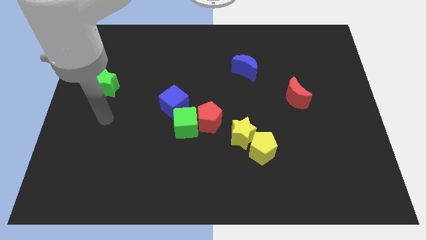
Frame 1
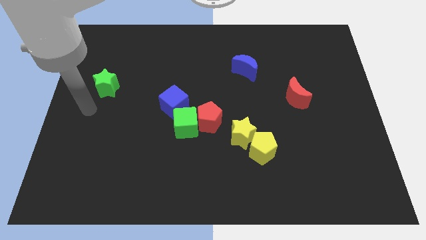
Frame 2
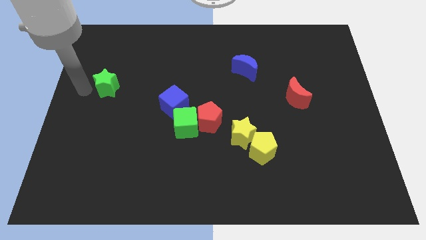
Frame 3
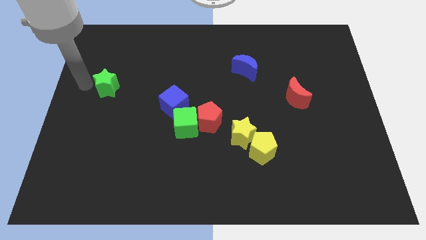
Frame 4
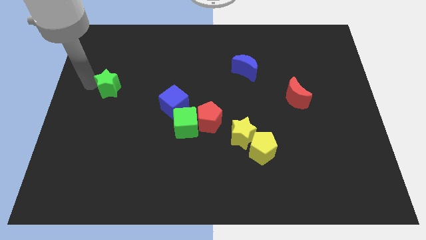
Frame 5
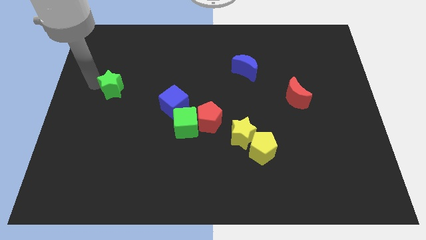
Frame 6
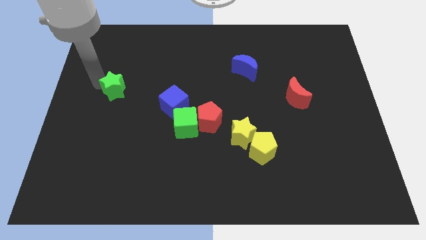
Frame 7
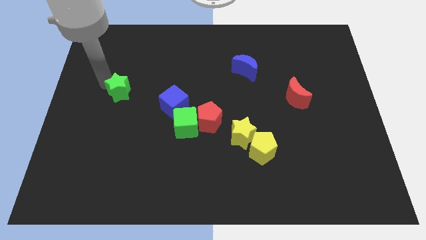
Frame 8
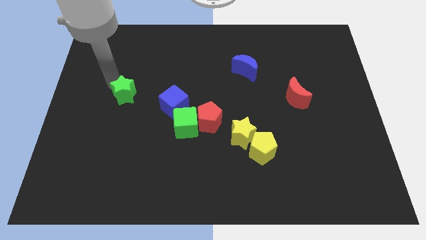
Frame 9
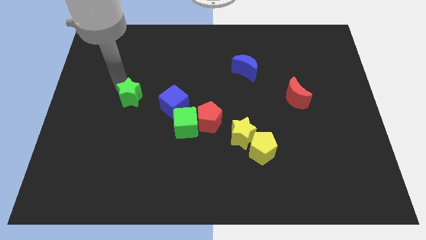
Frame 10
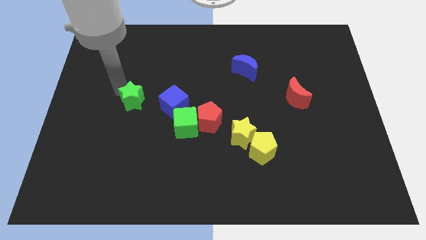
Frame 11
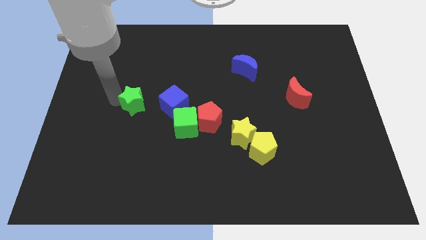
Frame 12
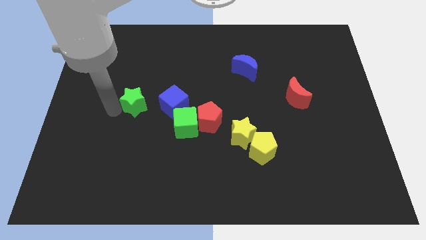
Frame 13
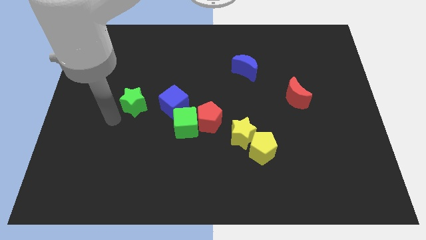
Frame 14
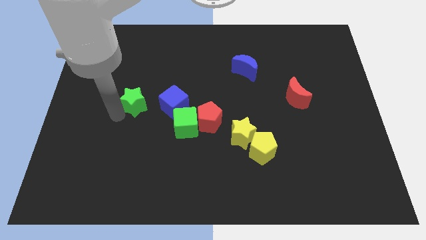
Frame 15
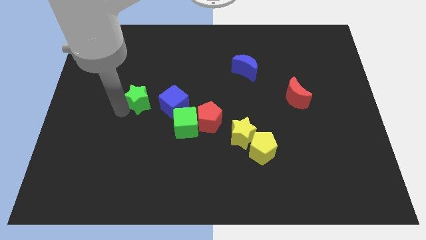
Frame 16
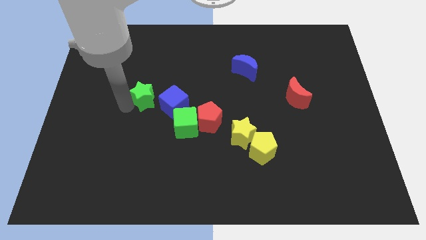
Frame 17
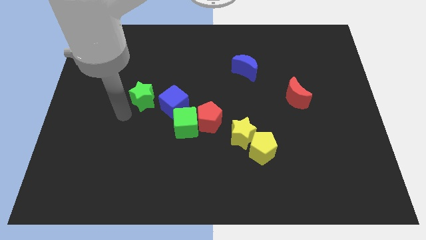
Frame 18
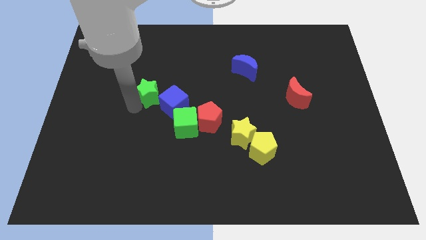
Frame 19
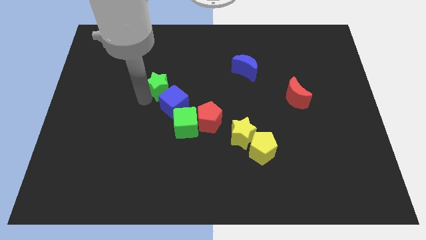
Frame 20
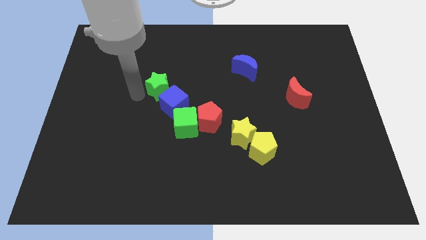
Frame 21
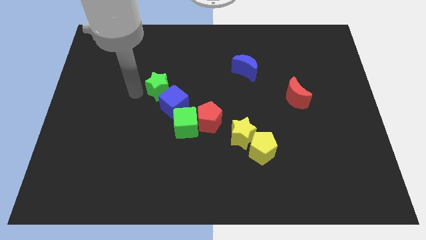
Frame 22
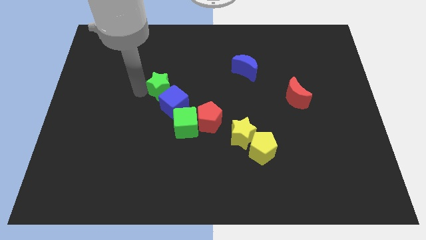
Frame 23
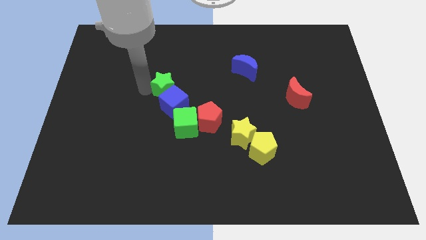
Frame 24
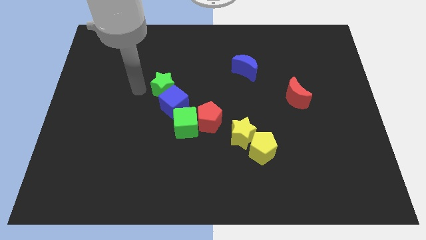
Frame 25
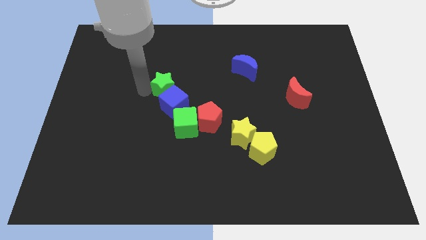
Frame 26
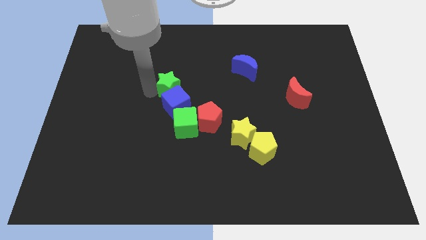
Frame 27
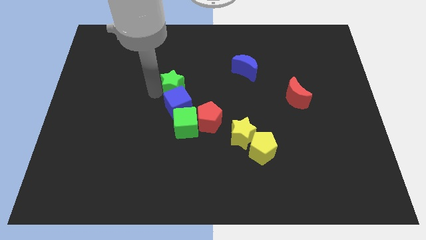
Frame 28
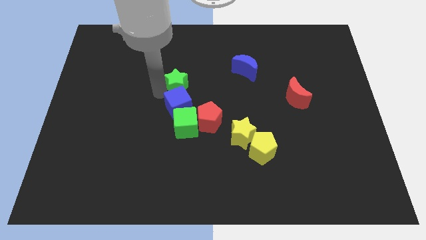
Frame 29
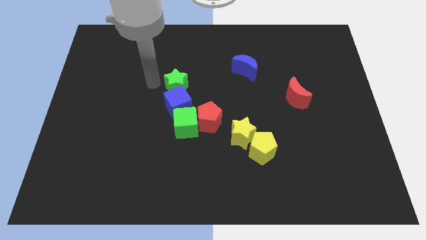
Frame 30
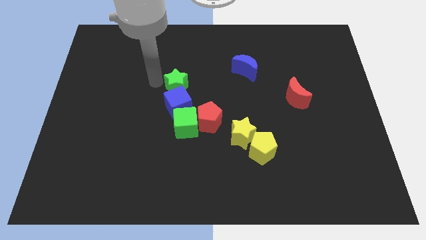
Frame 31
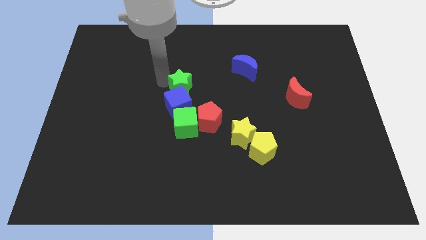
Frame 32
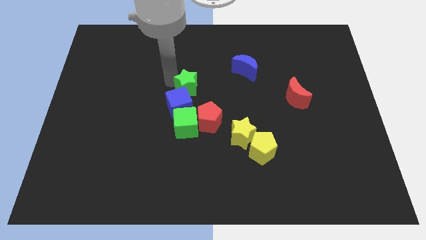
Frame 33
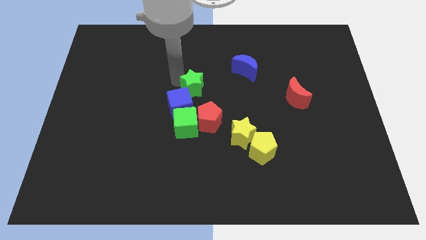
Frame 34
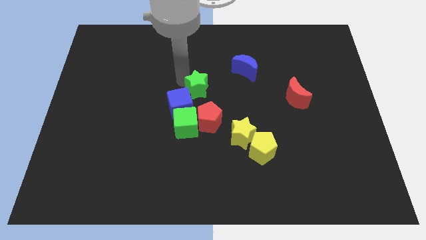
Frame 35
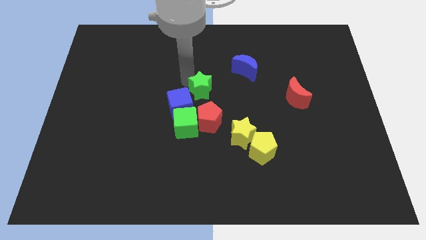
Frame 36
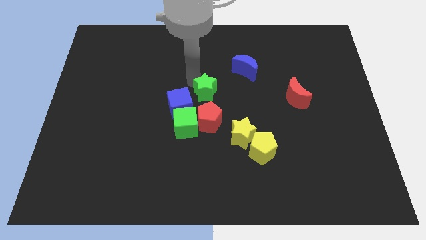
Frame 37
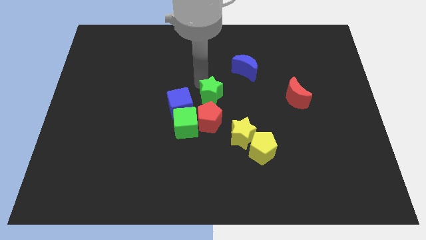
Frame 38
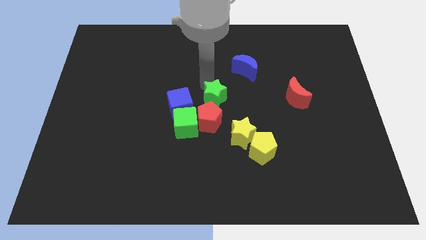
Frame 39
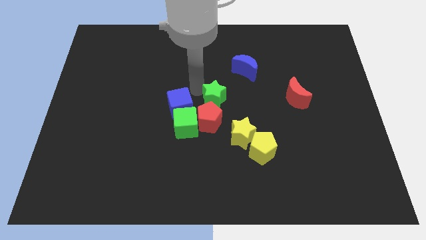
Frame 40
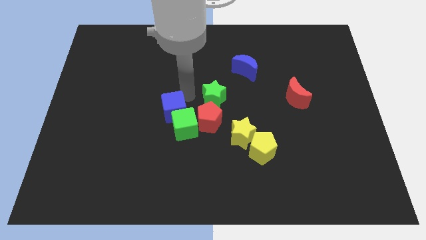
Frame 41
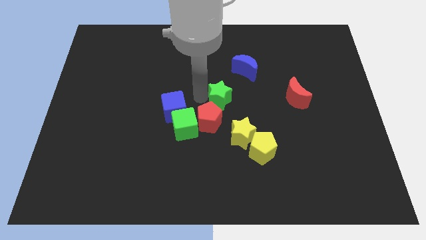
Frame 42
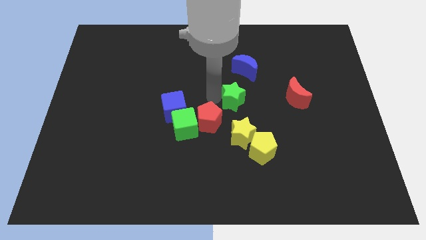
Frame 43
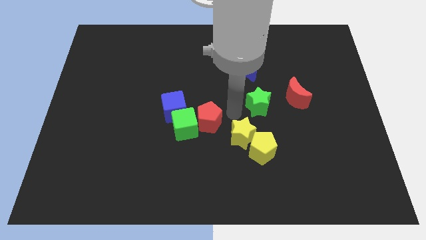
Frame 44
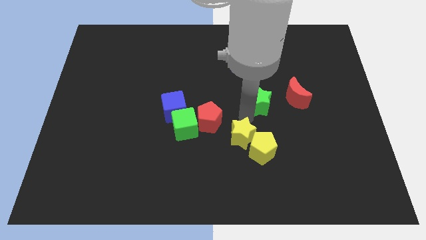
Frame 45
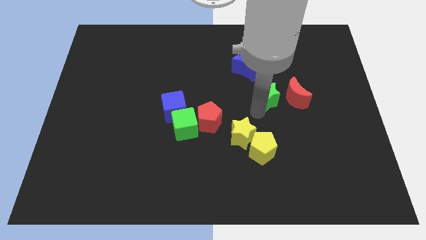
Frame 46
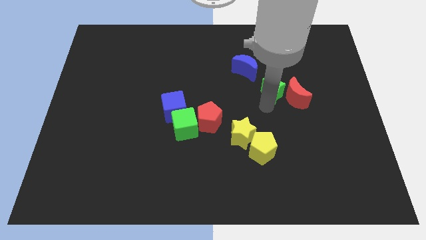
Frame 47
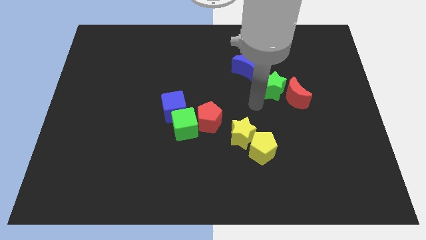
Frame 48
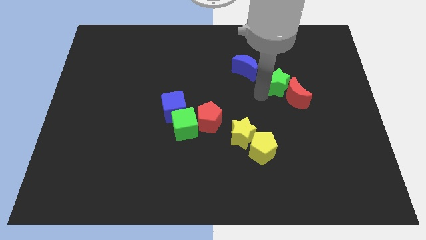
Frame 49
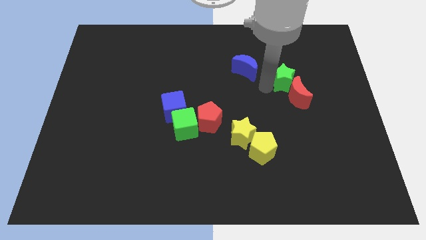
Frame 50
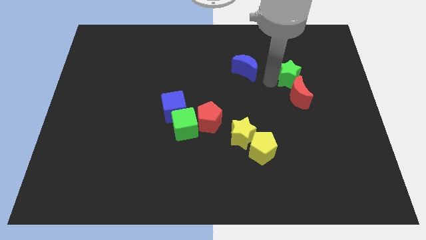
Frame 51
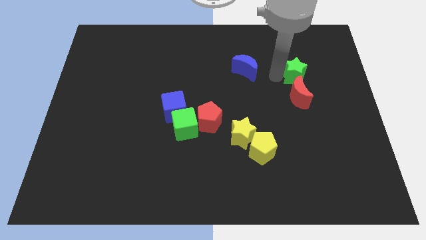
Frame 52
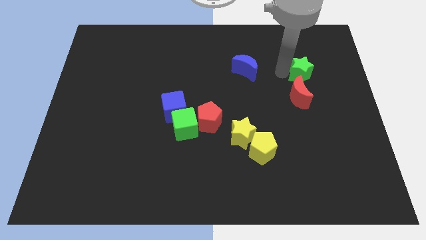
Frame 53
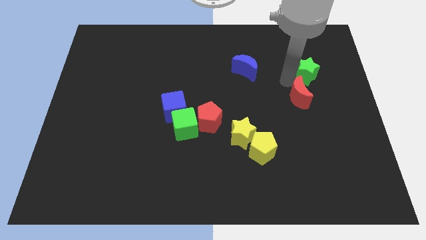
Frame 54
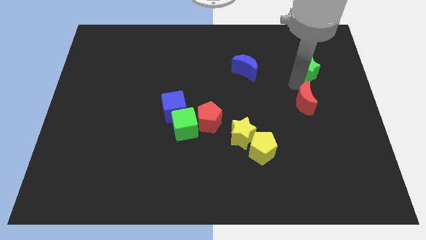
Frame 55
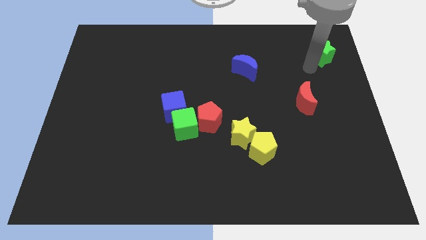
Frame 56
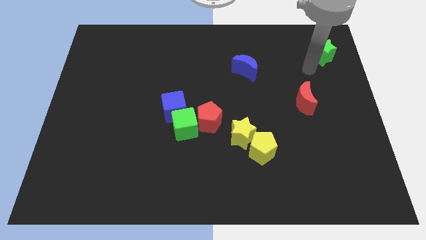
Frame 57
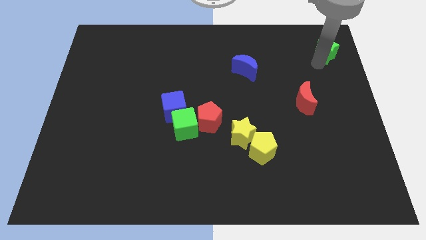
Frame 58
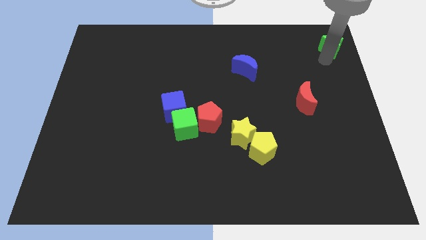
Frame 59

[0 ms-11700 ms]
put the green star to the top right corner
